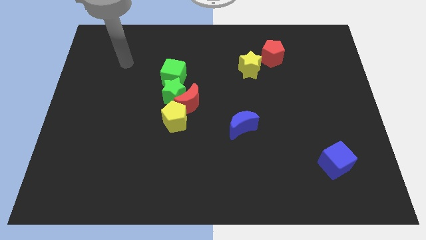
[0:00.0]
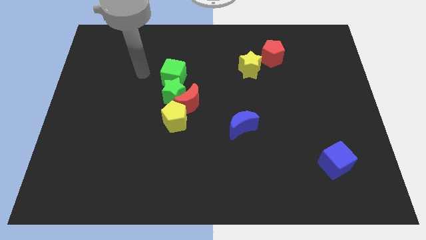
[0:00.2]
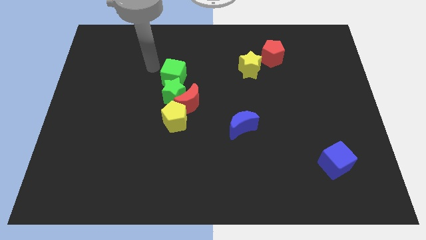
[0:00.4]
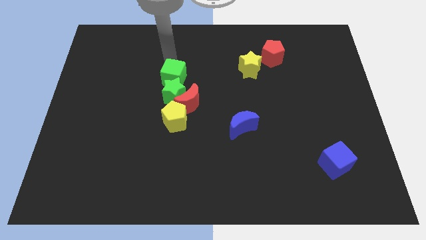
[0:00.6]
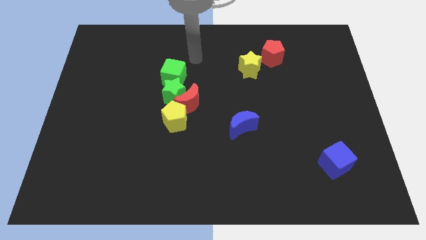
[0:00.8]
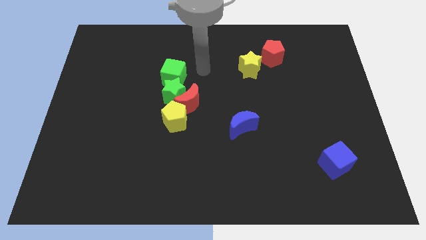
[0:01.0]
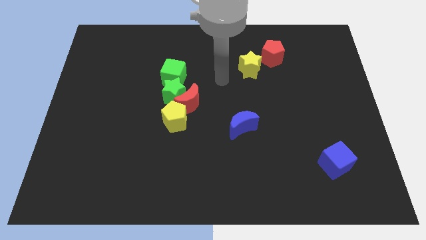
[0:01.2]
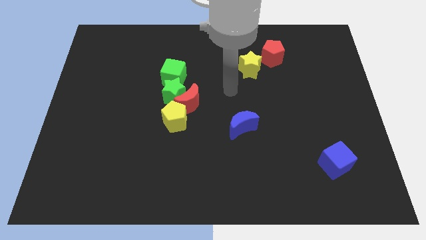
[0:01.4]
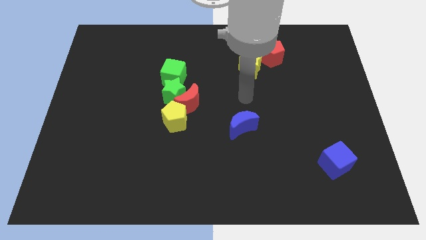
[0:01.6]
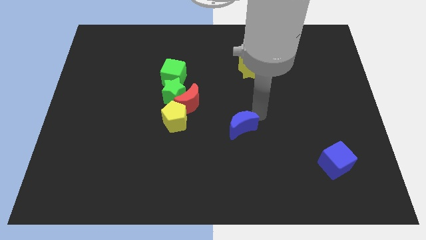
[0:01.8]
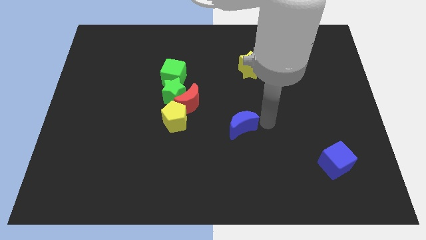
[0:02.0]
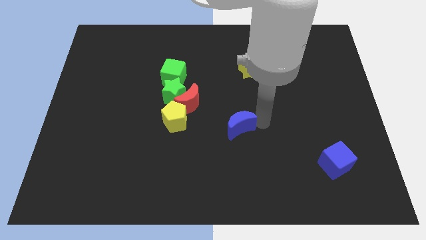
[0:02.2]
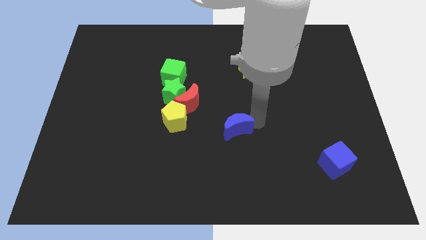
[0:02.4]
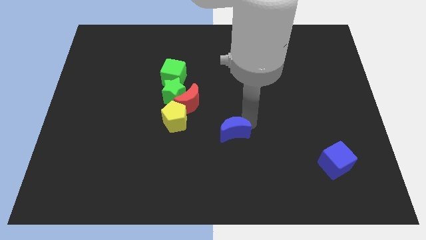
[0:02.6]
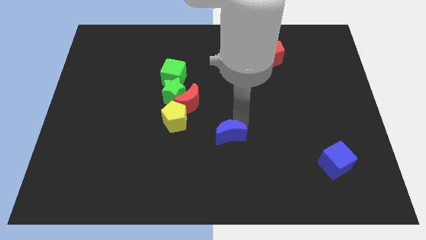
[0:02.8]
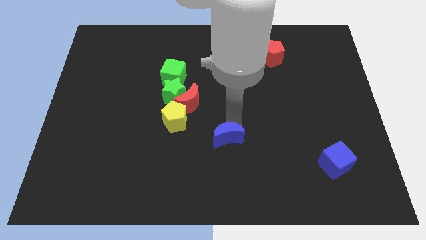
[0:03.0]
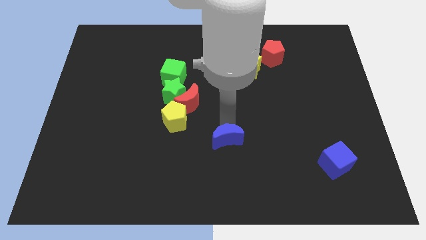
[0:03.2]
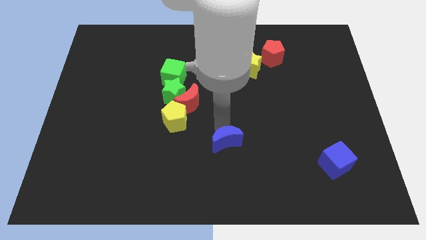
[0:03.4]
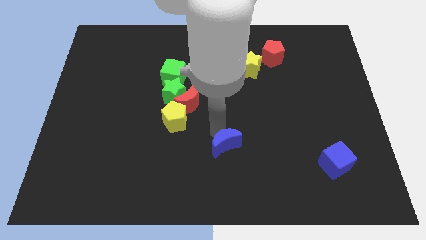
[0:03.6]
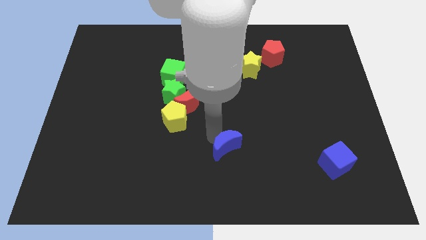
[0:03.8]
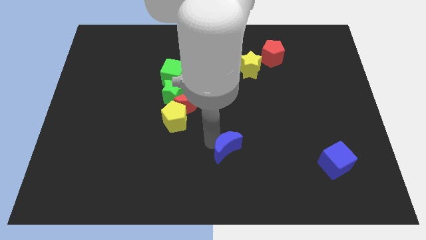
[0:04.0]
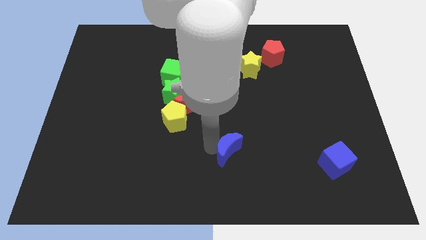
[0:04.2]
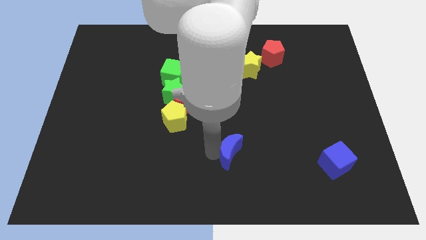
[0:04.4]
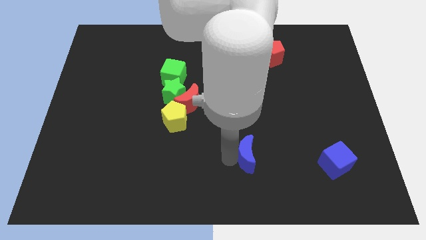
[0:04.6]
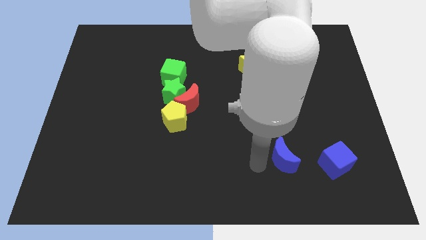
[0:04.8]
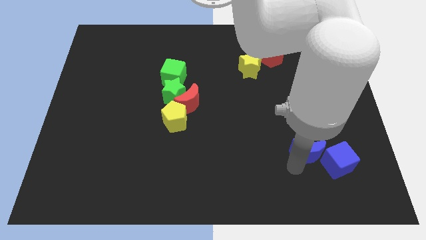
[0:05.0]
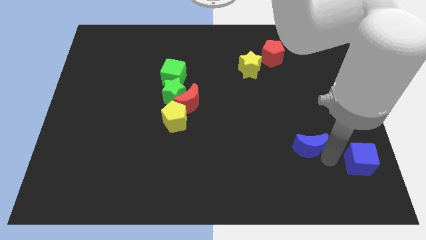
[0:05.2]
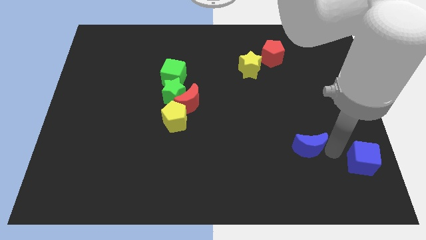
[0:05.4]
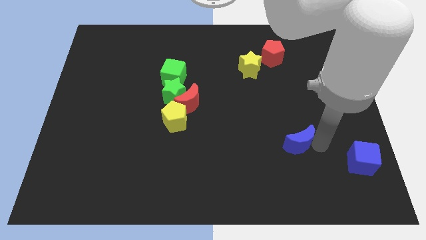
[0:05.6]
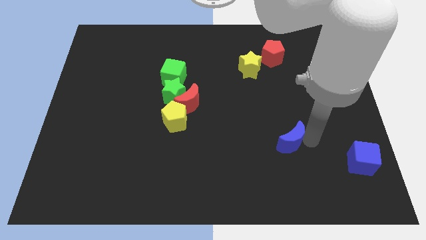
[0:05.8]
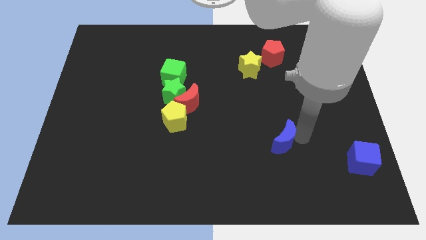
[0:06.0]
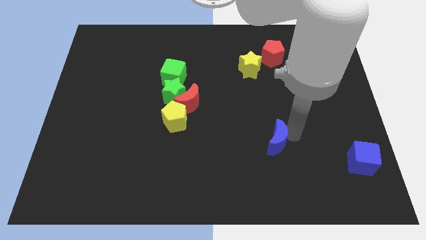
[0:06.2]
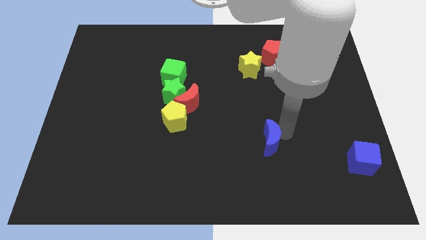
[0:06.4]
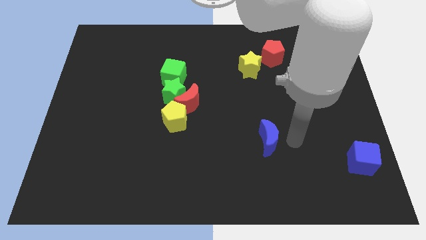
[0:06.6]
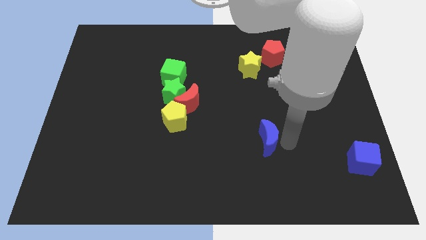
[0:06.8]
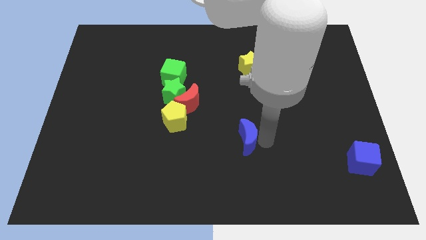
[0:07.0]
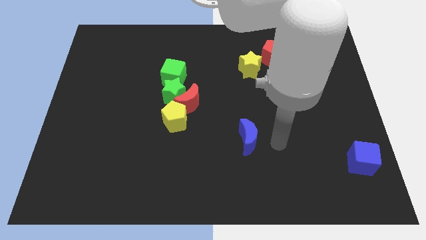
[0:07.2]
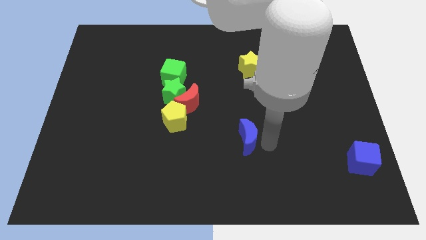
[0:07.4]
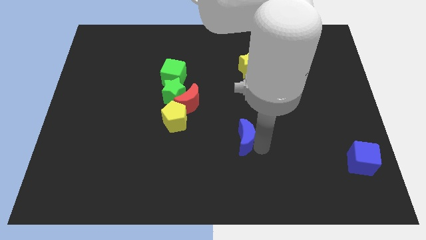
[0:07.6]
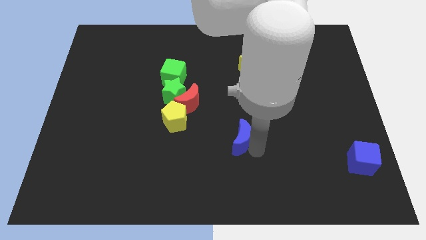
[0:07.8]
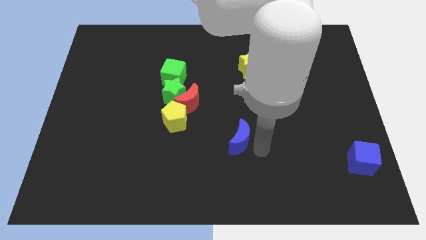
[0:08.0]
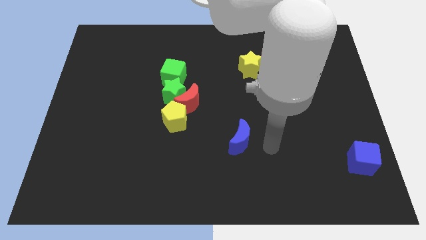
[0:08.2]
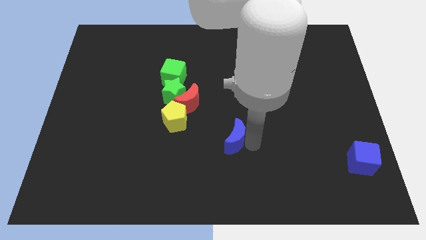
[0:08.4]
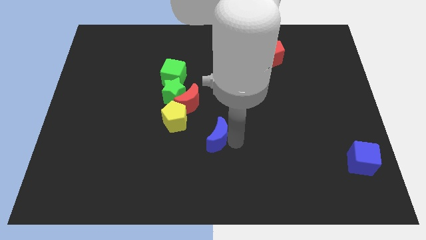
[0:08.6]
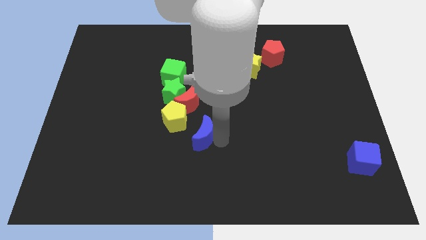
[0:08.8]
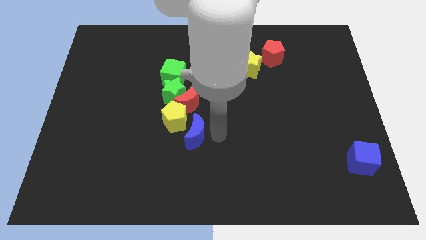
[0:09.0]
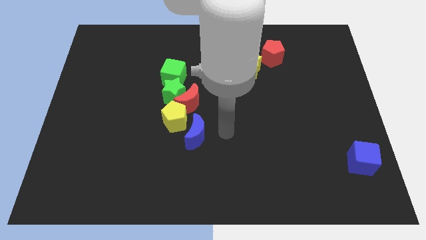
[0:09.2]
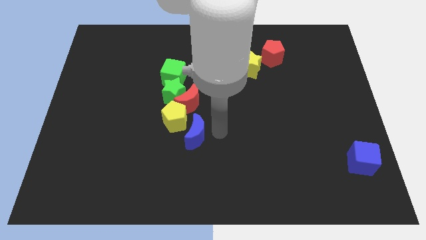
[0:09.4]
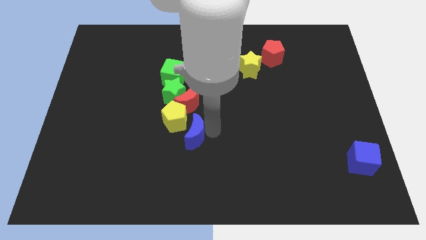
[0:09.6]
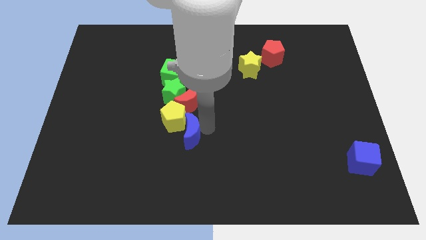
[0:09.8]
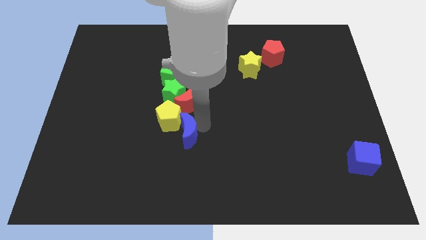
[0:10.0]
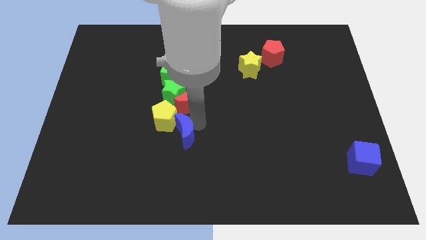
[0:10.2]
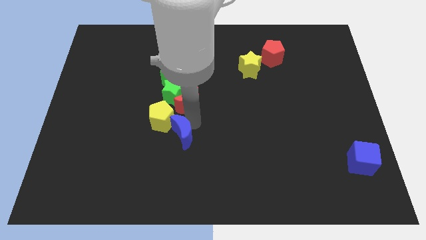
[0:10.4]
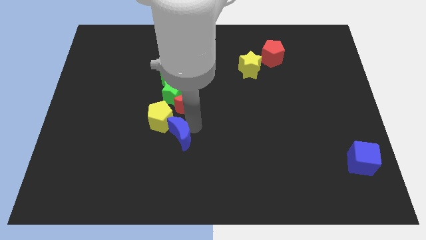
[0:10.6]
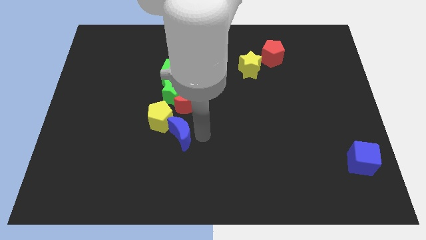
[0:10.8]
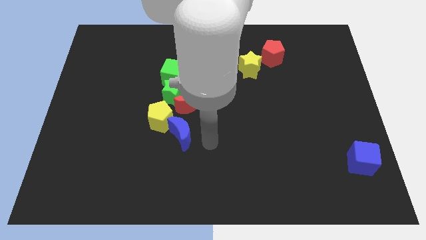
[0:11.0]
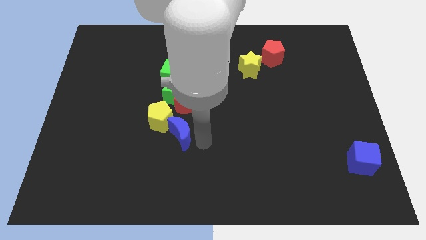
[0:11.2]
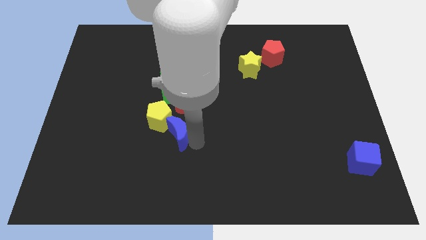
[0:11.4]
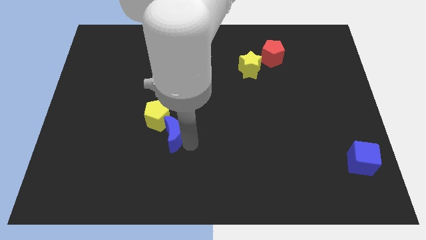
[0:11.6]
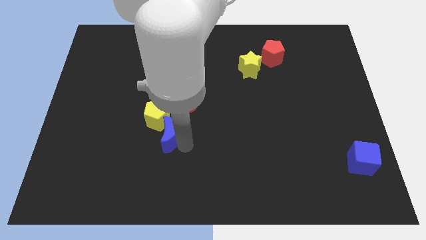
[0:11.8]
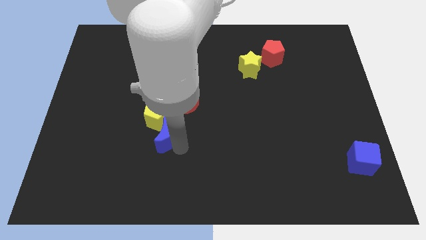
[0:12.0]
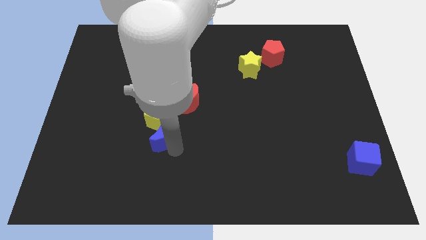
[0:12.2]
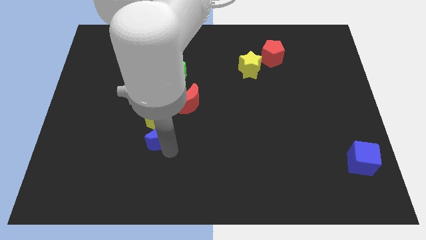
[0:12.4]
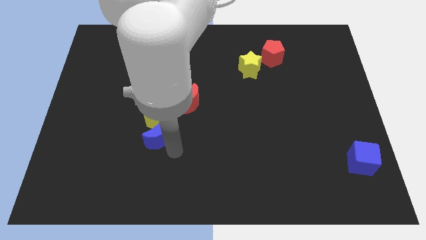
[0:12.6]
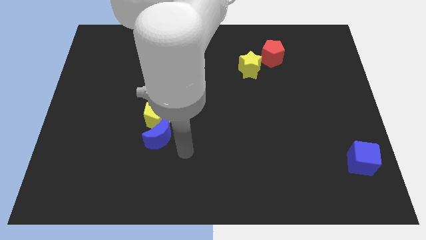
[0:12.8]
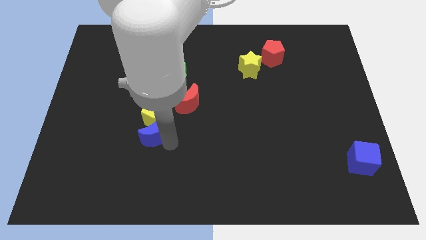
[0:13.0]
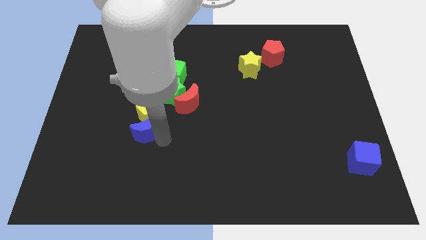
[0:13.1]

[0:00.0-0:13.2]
slide the blue moon to the left

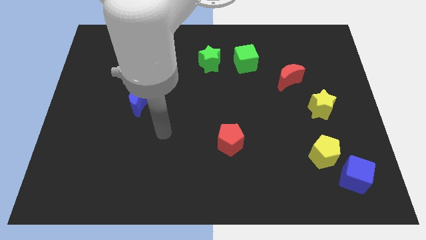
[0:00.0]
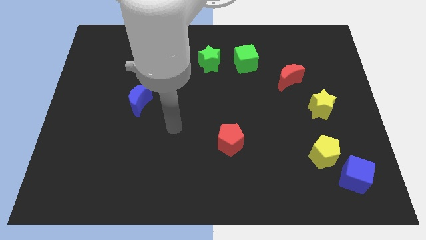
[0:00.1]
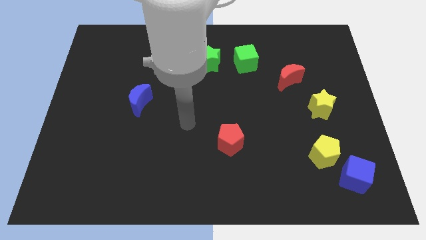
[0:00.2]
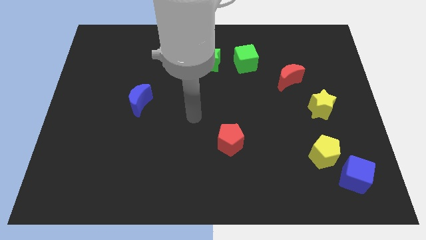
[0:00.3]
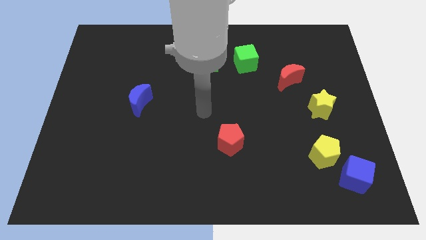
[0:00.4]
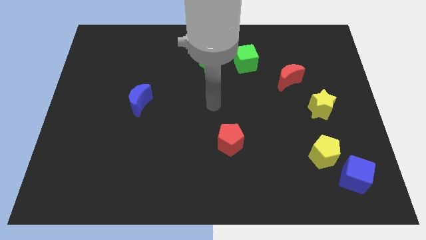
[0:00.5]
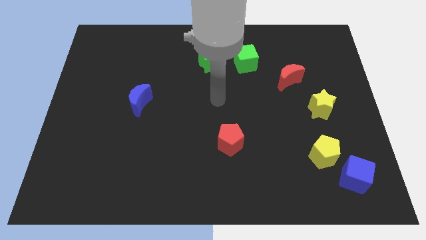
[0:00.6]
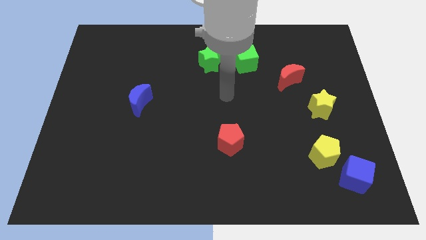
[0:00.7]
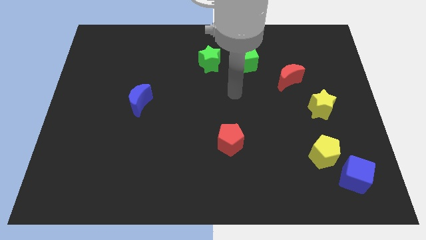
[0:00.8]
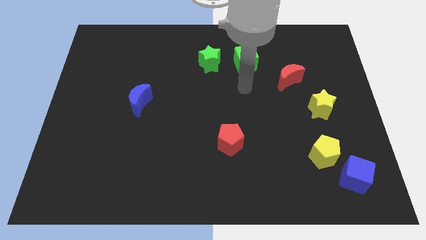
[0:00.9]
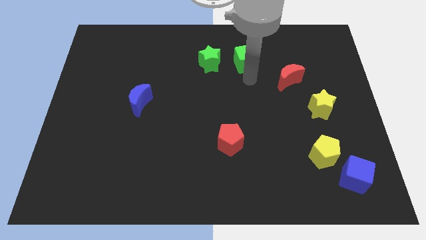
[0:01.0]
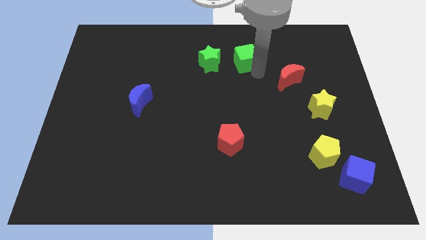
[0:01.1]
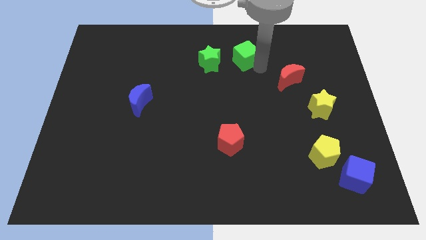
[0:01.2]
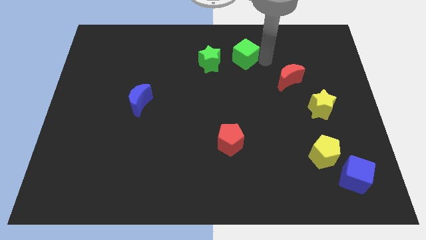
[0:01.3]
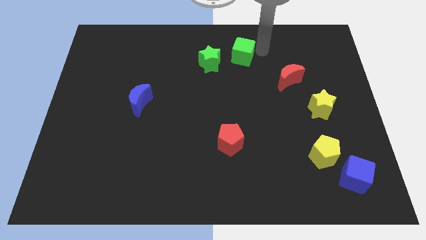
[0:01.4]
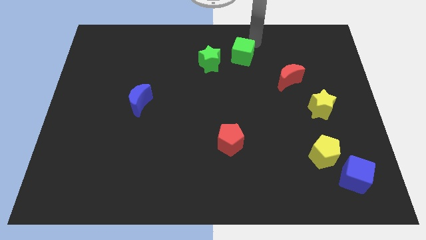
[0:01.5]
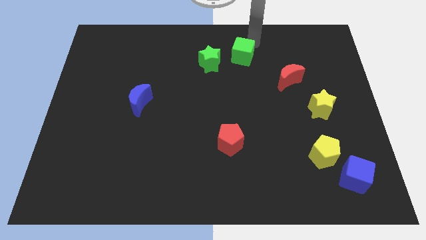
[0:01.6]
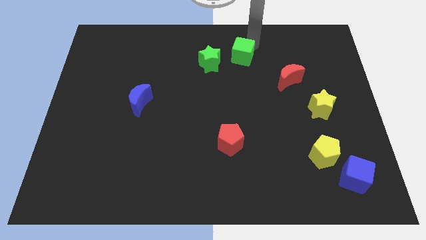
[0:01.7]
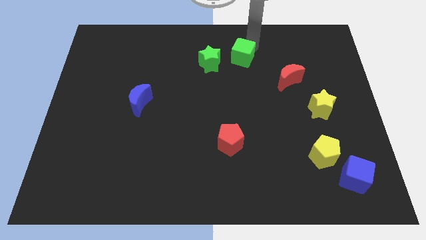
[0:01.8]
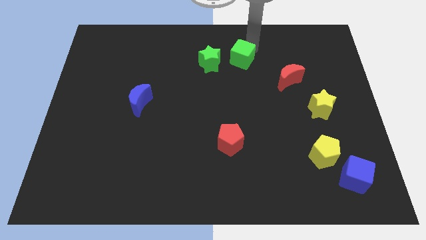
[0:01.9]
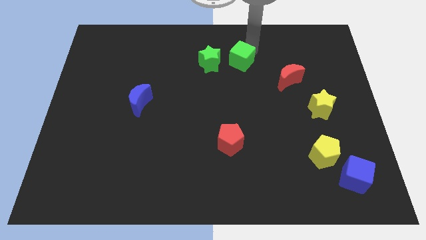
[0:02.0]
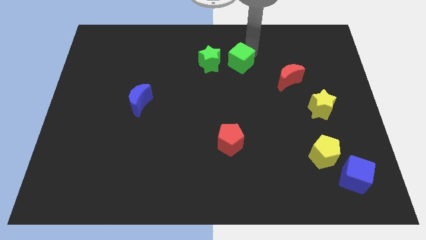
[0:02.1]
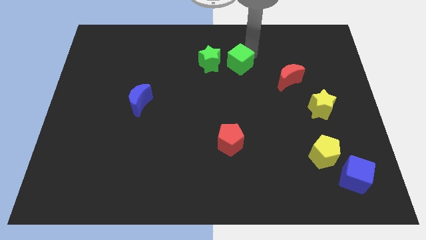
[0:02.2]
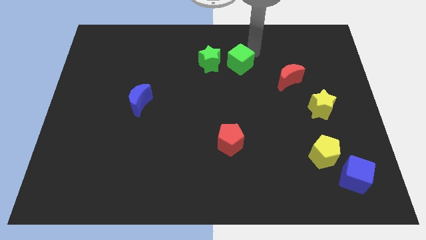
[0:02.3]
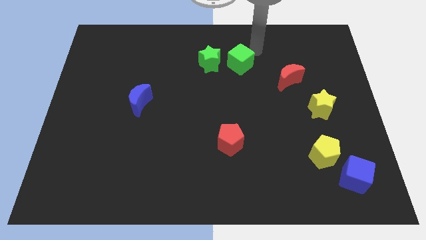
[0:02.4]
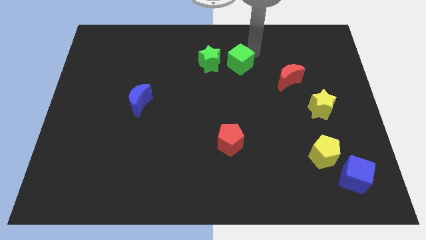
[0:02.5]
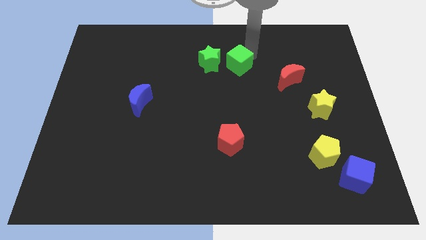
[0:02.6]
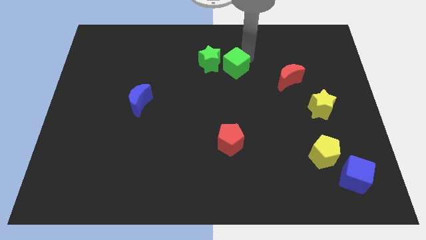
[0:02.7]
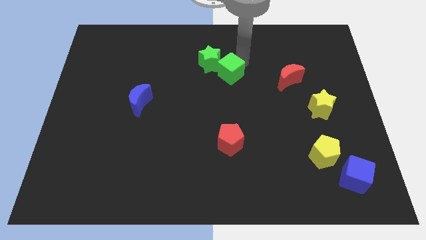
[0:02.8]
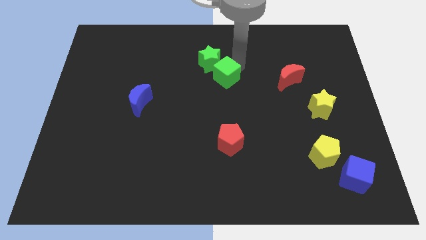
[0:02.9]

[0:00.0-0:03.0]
slightly slide the green cube down and left diagonally
